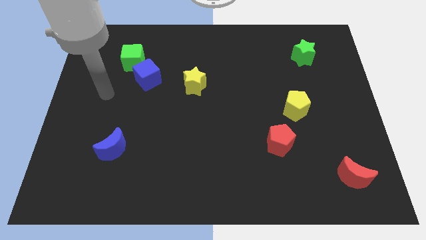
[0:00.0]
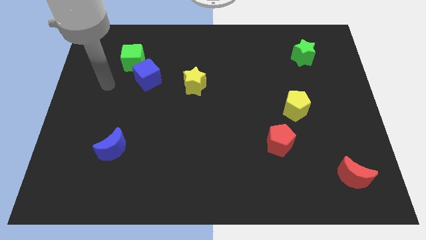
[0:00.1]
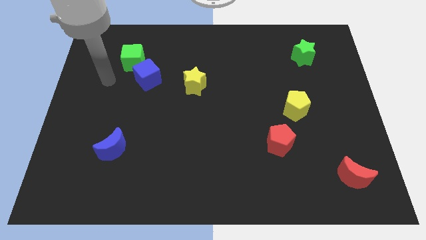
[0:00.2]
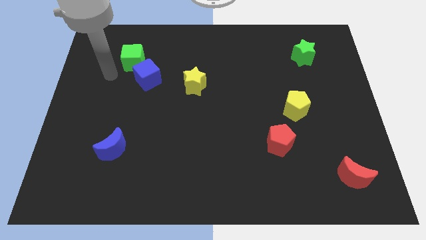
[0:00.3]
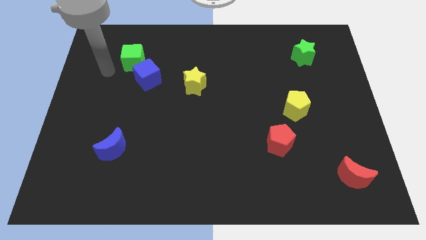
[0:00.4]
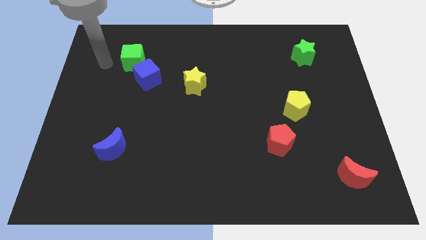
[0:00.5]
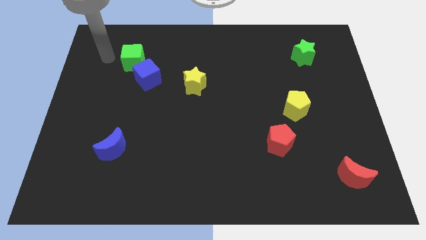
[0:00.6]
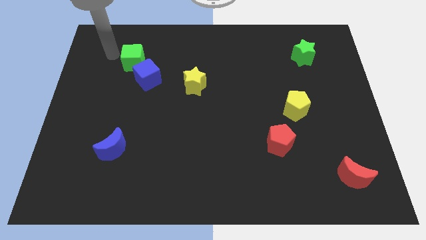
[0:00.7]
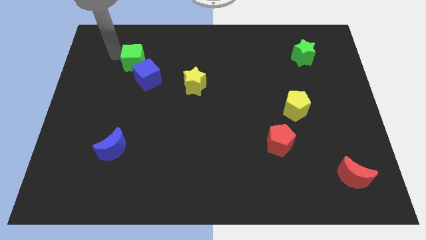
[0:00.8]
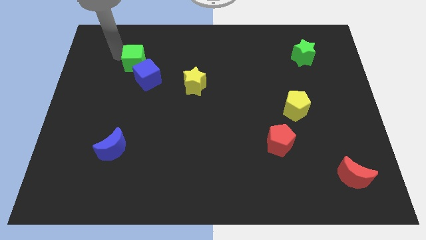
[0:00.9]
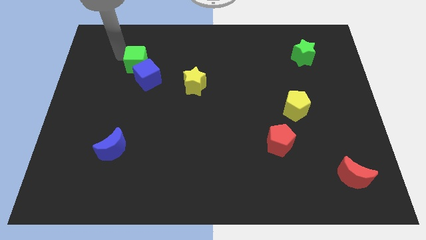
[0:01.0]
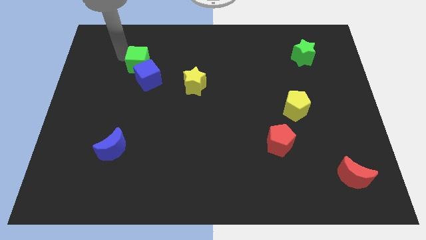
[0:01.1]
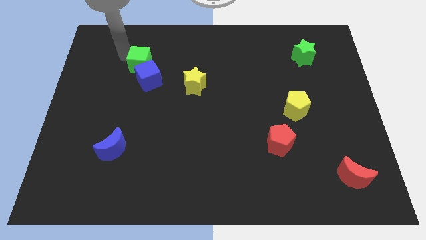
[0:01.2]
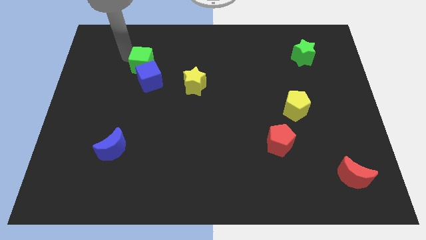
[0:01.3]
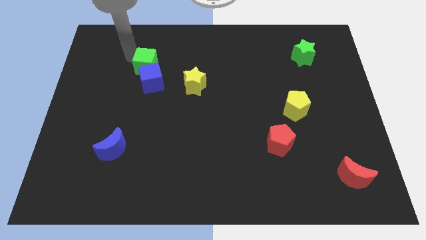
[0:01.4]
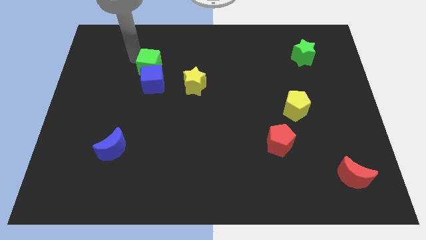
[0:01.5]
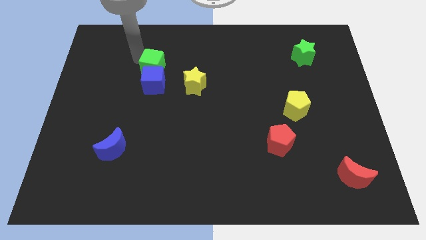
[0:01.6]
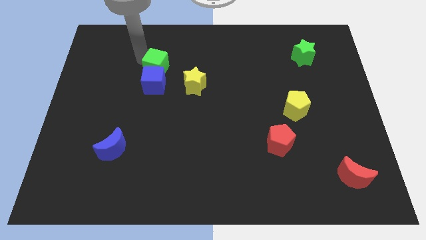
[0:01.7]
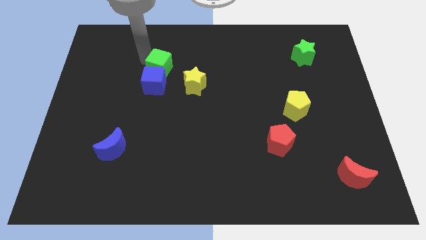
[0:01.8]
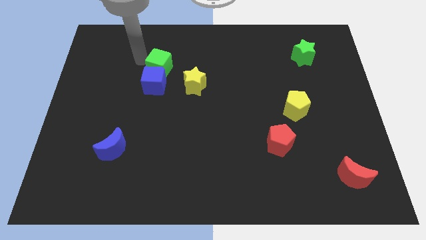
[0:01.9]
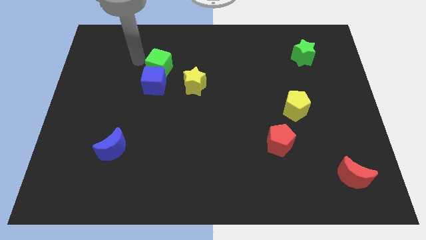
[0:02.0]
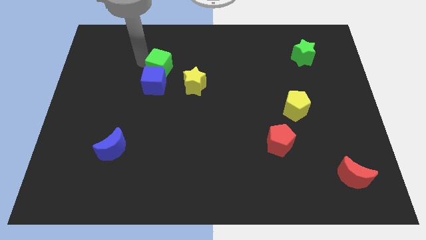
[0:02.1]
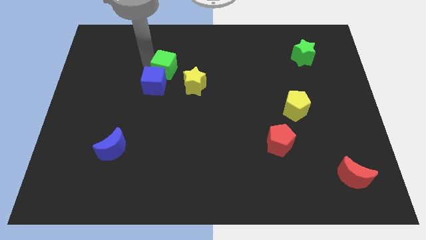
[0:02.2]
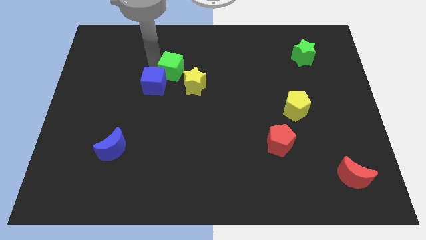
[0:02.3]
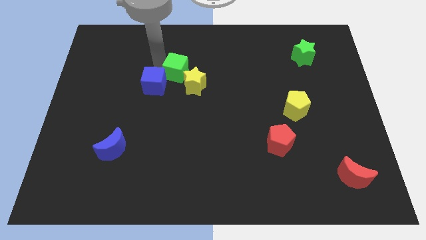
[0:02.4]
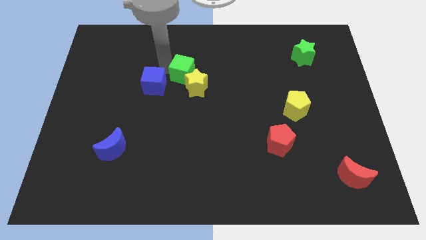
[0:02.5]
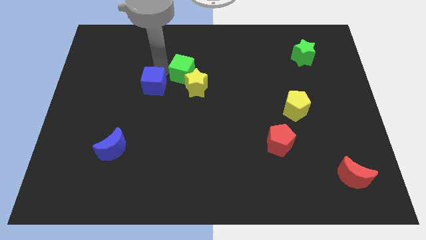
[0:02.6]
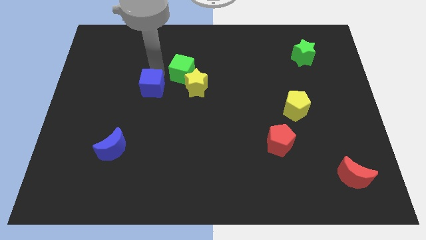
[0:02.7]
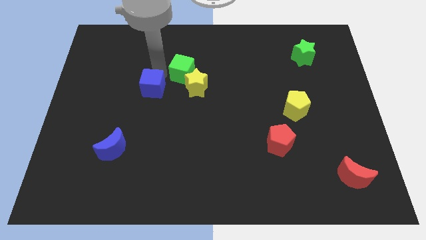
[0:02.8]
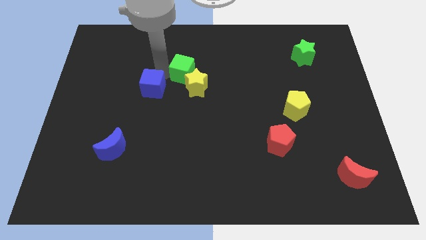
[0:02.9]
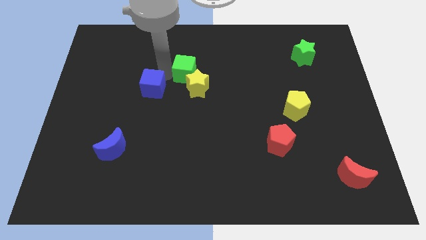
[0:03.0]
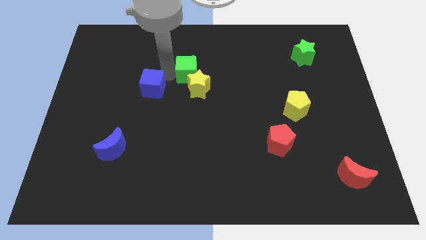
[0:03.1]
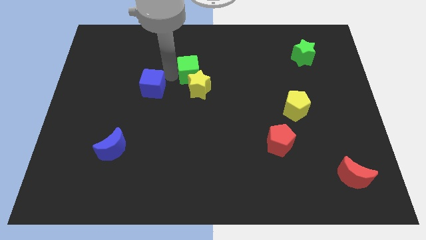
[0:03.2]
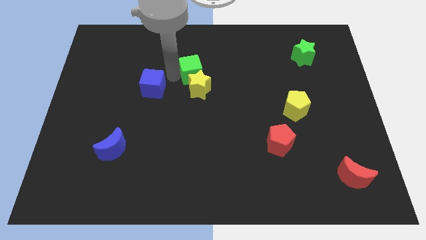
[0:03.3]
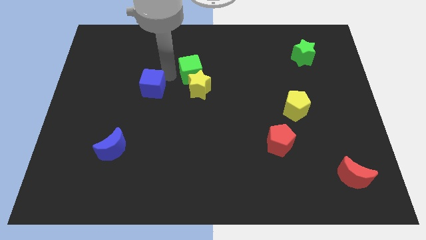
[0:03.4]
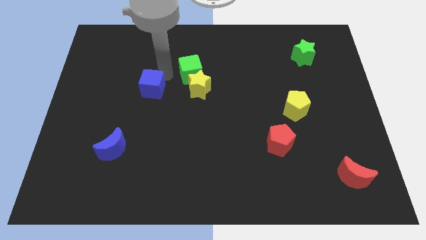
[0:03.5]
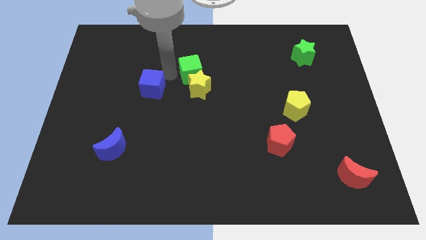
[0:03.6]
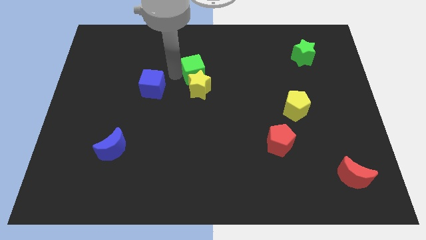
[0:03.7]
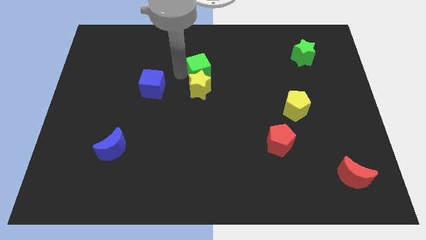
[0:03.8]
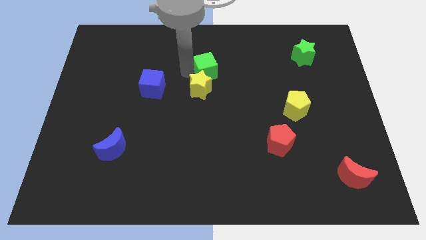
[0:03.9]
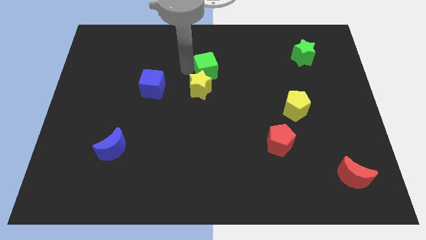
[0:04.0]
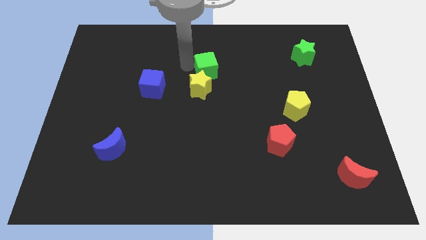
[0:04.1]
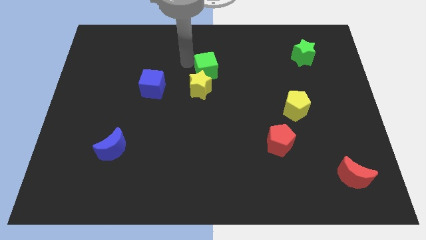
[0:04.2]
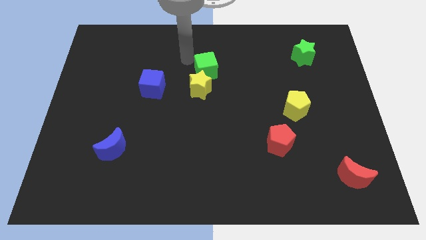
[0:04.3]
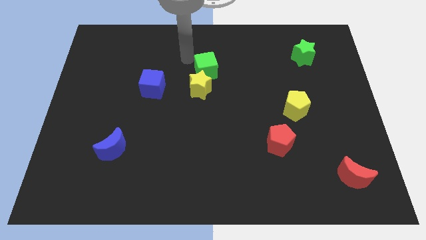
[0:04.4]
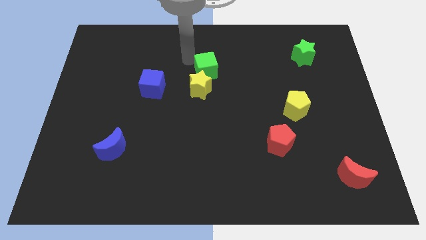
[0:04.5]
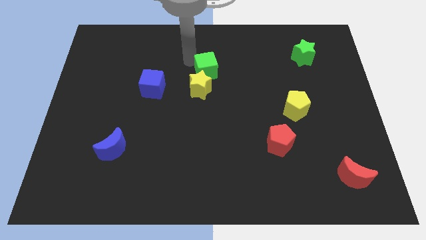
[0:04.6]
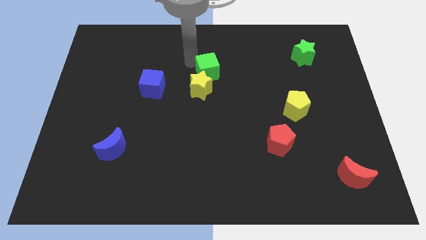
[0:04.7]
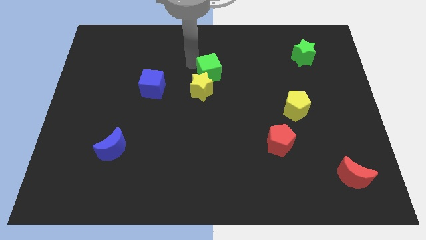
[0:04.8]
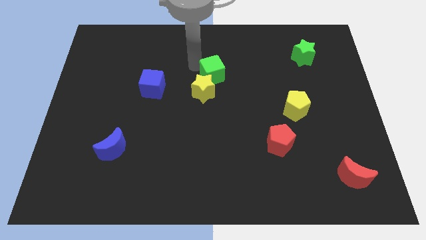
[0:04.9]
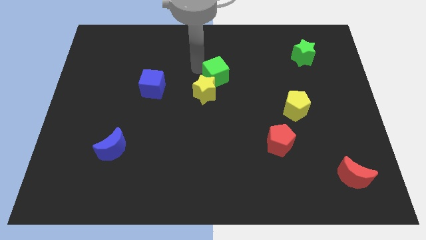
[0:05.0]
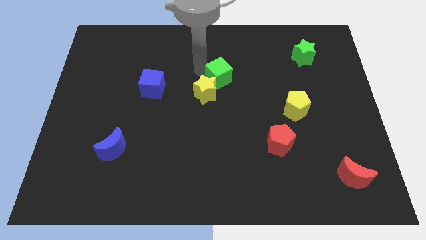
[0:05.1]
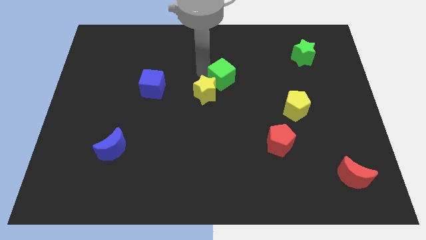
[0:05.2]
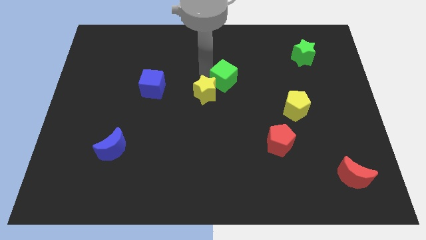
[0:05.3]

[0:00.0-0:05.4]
push the green cube just right of the yellow star

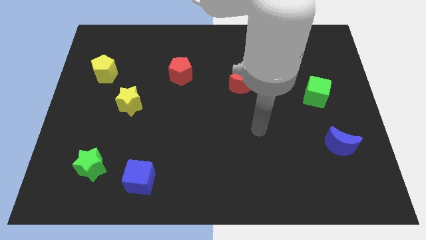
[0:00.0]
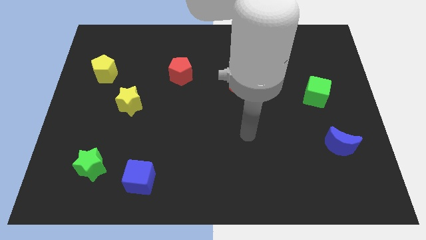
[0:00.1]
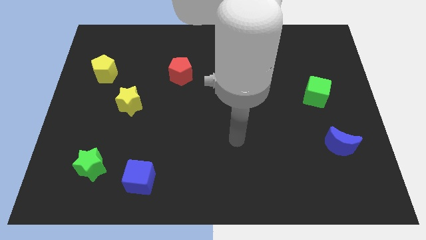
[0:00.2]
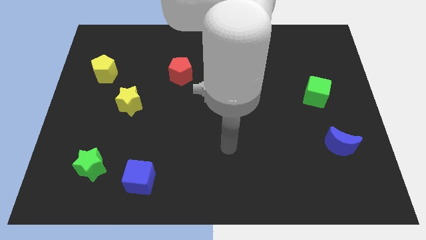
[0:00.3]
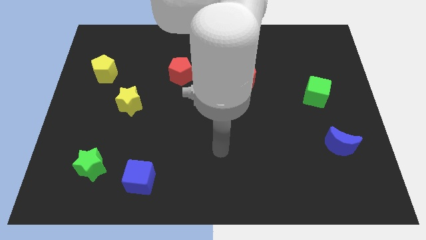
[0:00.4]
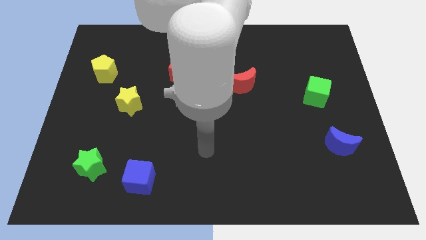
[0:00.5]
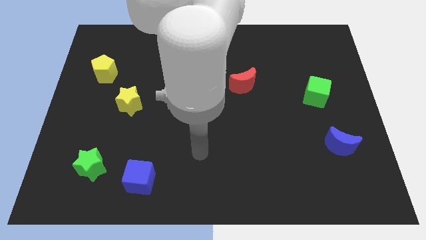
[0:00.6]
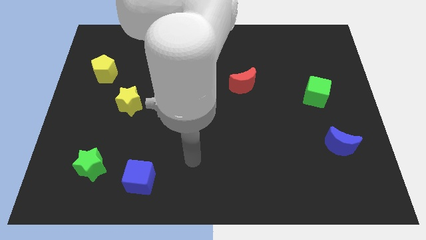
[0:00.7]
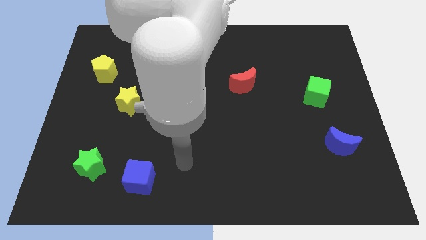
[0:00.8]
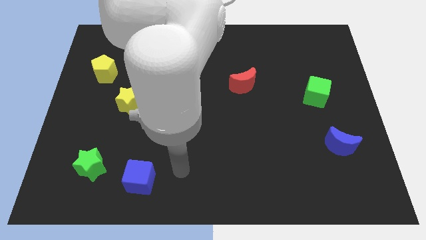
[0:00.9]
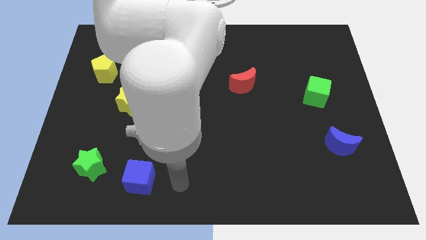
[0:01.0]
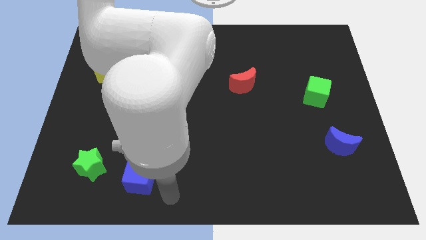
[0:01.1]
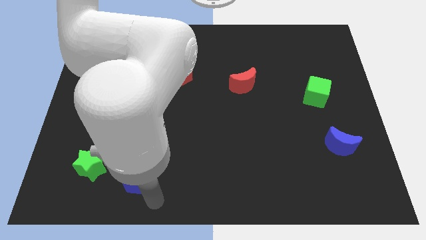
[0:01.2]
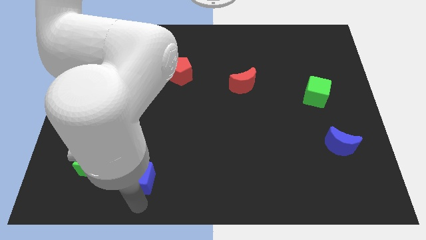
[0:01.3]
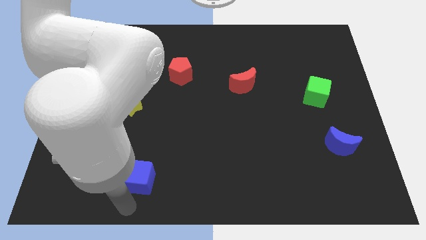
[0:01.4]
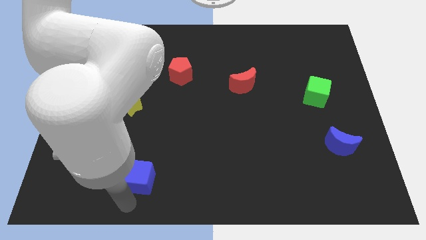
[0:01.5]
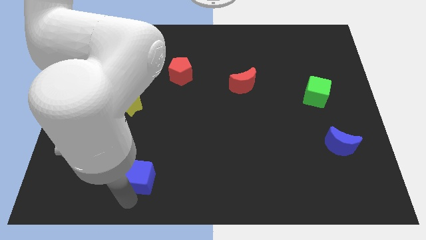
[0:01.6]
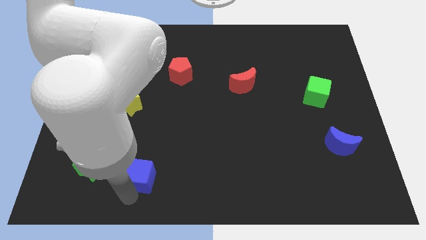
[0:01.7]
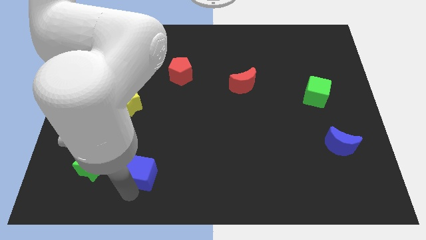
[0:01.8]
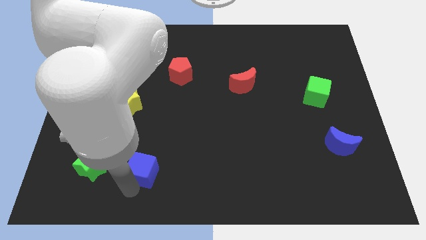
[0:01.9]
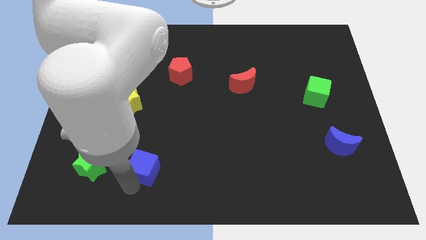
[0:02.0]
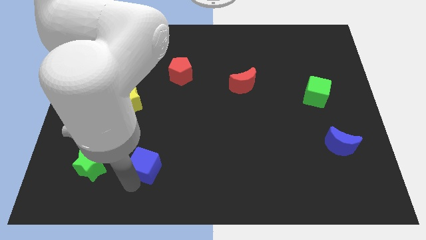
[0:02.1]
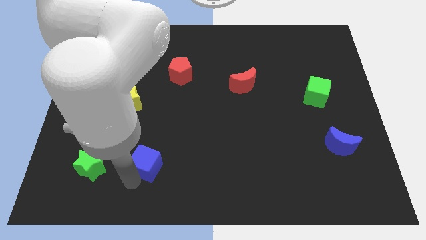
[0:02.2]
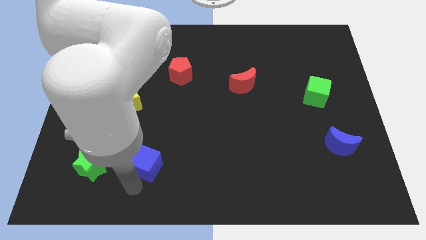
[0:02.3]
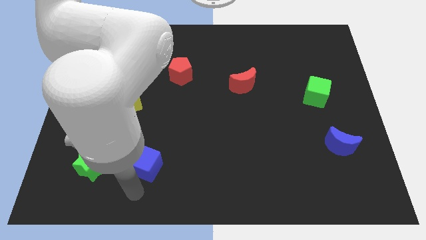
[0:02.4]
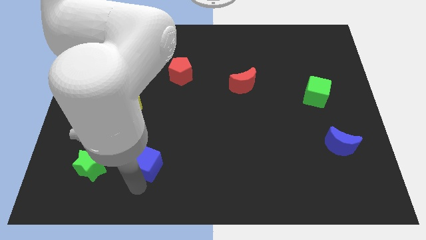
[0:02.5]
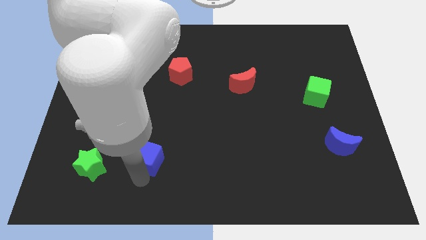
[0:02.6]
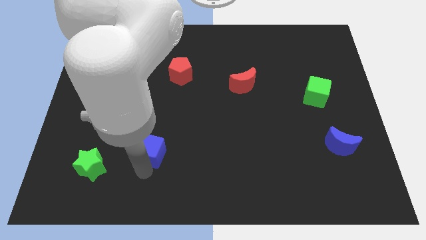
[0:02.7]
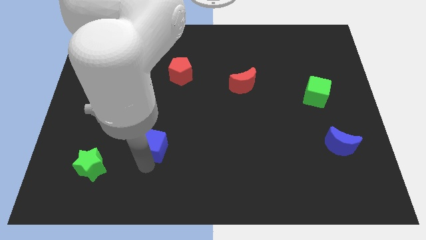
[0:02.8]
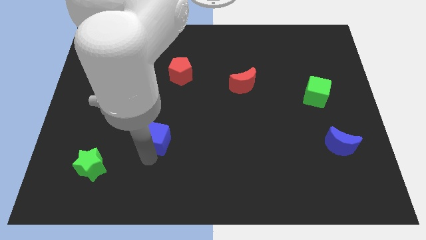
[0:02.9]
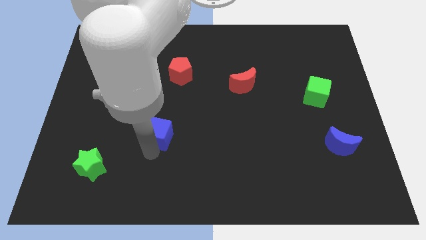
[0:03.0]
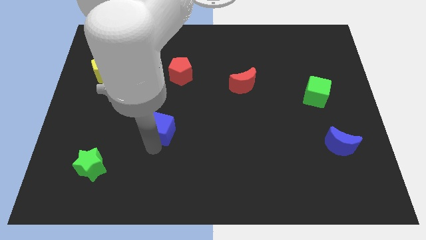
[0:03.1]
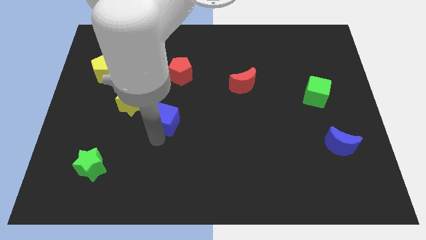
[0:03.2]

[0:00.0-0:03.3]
move the blue cube below the red pentagon
